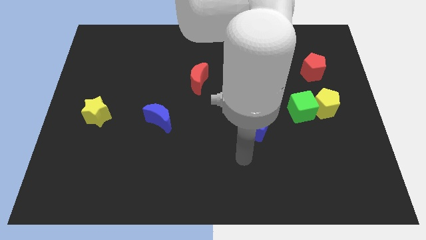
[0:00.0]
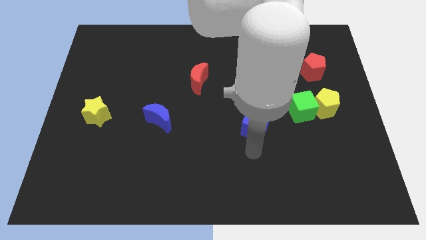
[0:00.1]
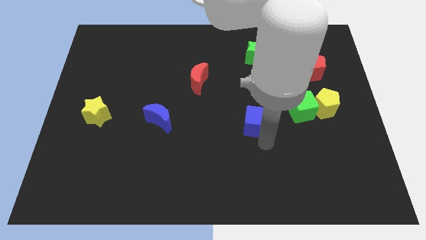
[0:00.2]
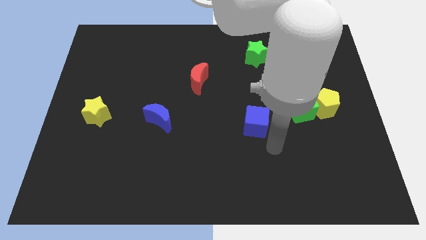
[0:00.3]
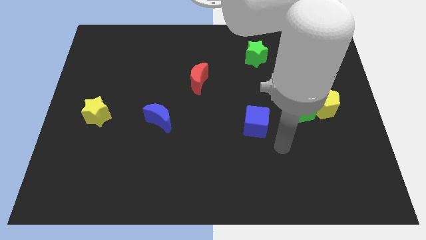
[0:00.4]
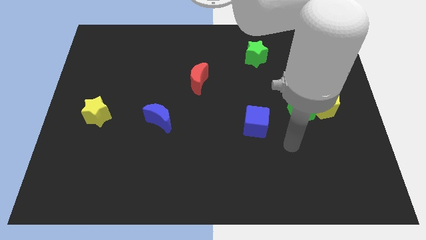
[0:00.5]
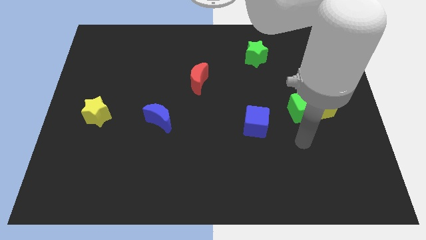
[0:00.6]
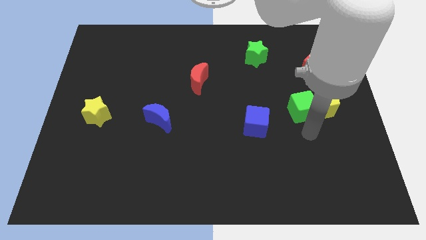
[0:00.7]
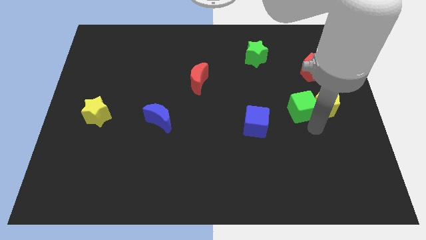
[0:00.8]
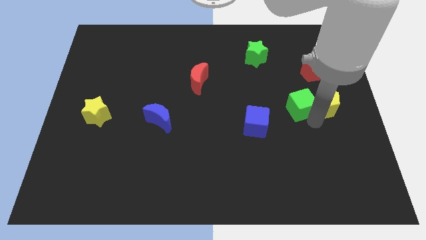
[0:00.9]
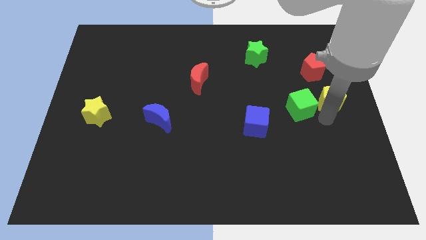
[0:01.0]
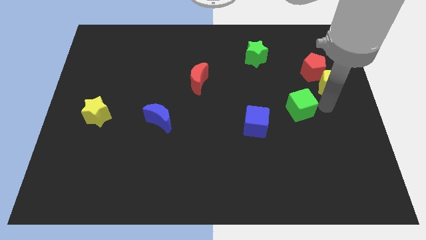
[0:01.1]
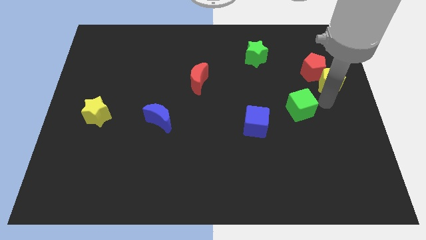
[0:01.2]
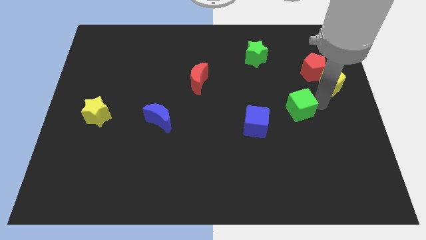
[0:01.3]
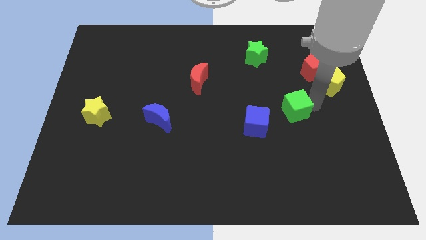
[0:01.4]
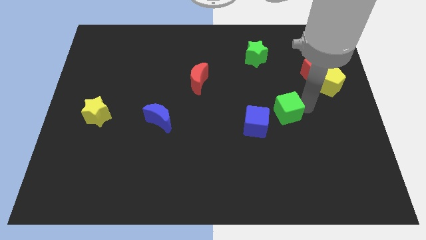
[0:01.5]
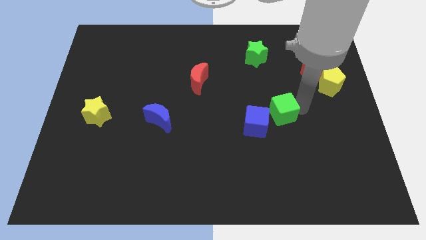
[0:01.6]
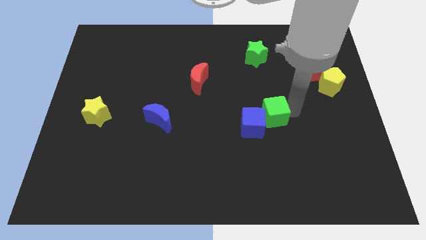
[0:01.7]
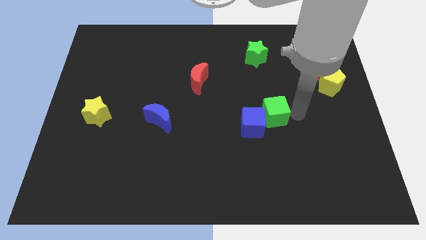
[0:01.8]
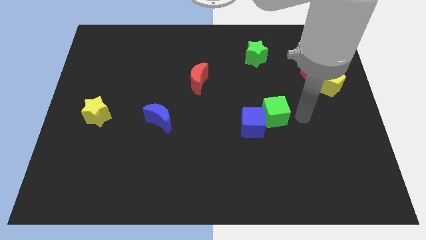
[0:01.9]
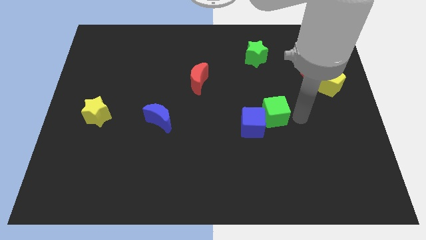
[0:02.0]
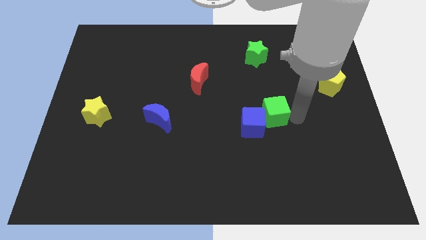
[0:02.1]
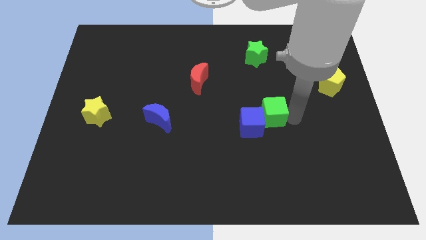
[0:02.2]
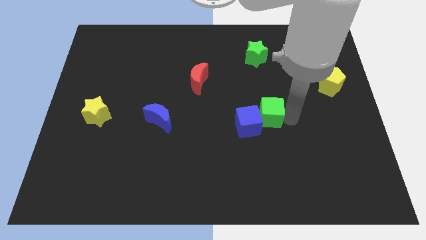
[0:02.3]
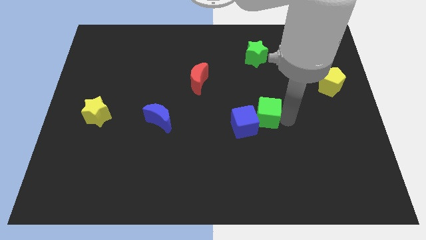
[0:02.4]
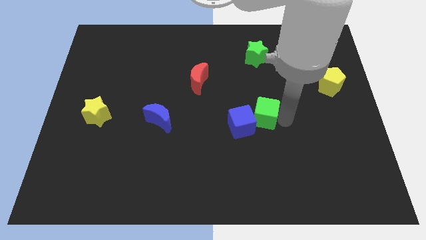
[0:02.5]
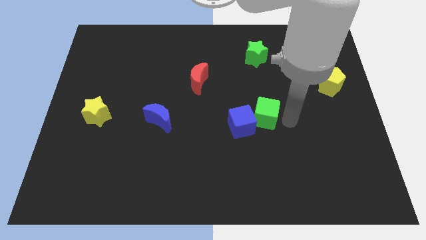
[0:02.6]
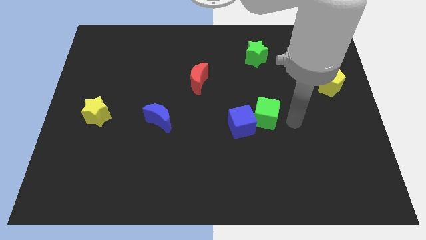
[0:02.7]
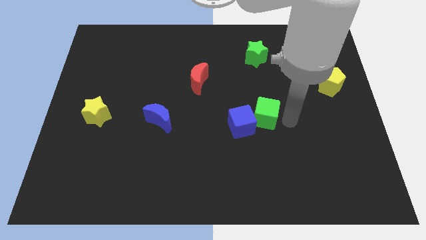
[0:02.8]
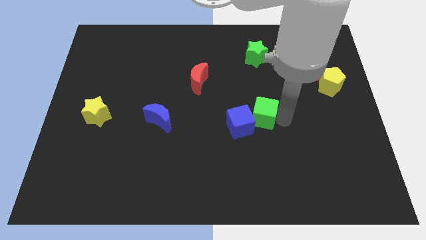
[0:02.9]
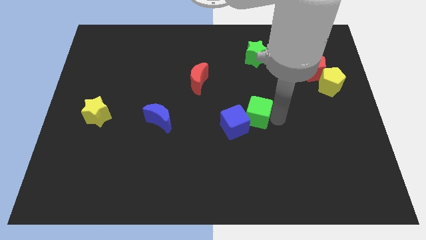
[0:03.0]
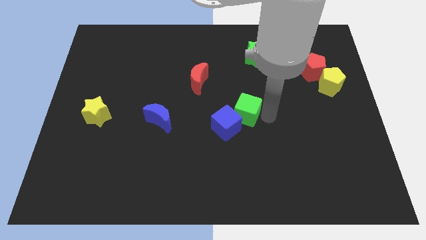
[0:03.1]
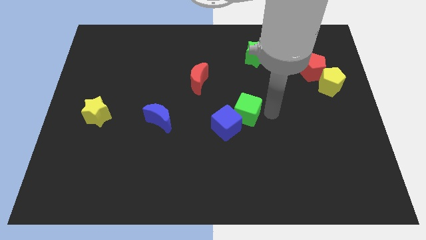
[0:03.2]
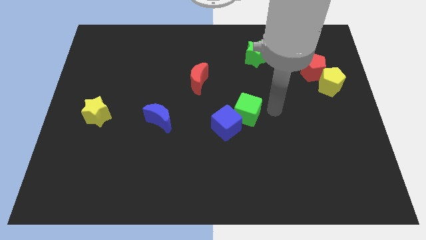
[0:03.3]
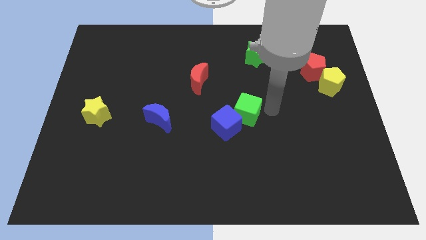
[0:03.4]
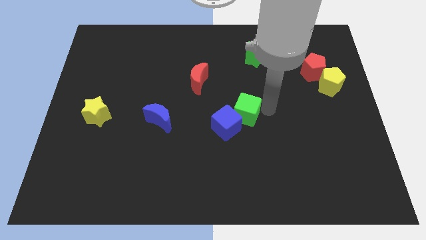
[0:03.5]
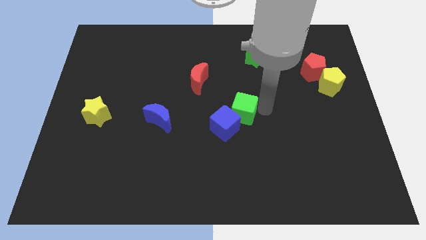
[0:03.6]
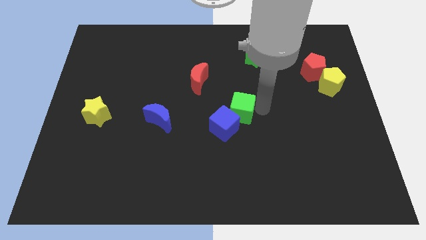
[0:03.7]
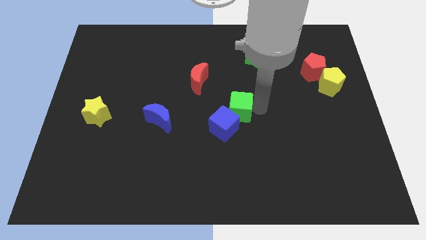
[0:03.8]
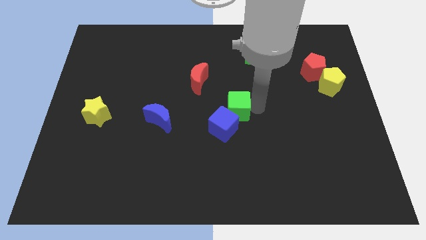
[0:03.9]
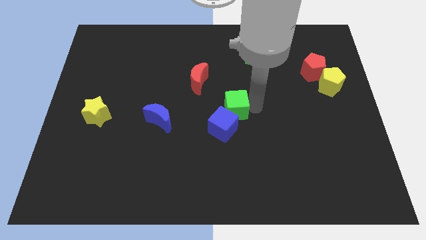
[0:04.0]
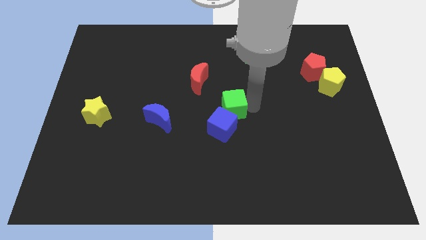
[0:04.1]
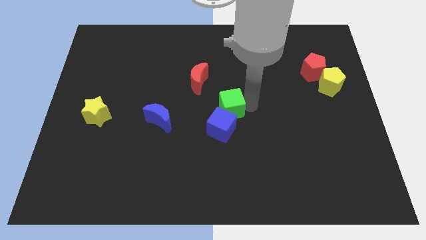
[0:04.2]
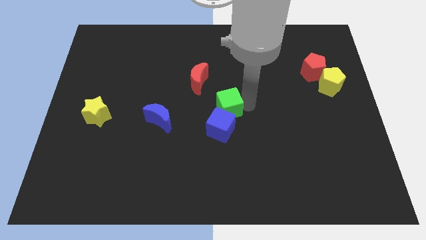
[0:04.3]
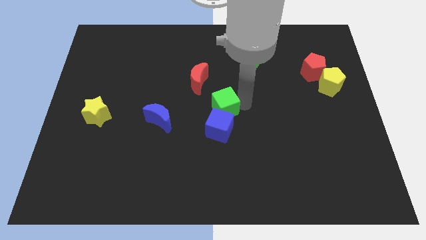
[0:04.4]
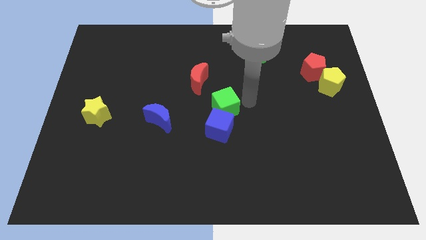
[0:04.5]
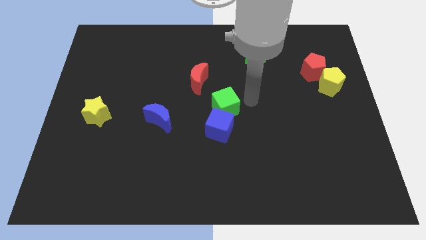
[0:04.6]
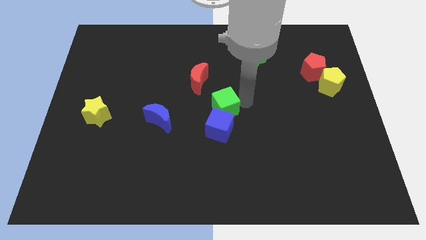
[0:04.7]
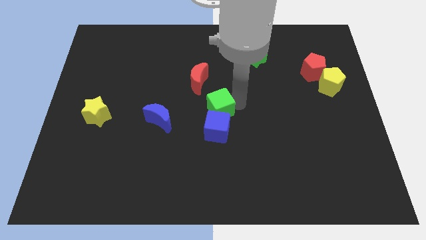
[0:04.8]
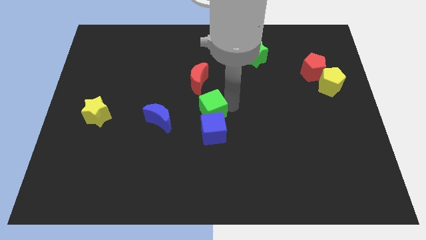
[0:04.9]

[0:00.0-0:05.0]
slide the green cube to the bottom side of the red moon

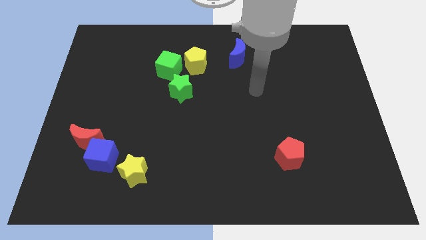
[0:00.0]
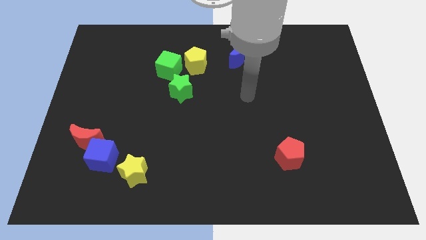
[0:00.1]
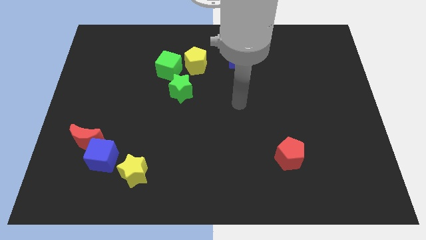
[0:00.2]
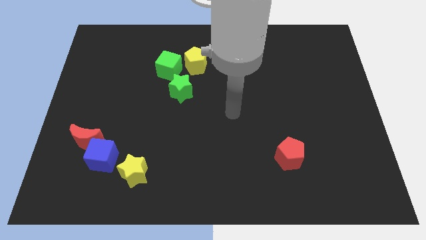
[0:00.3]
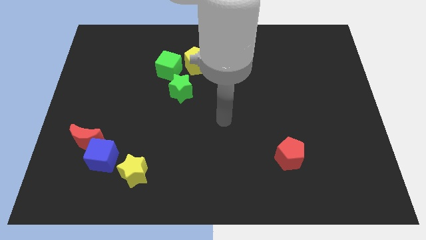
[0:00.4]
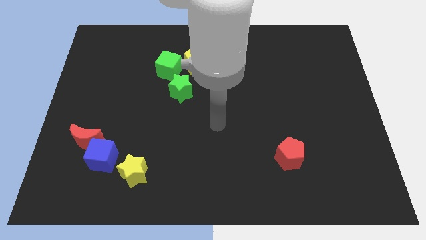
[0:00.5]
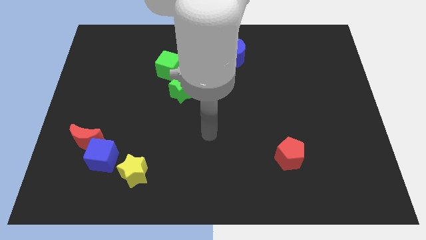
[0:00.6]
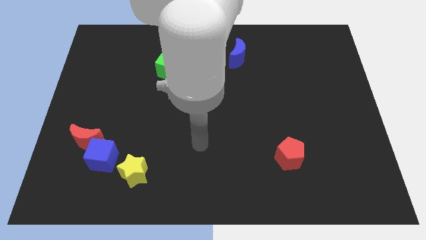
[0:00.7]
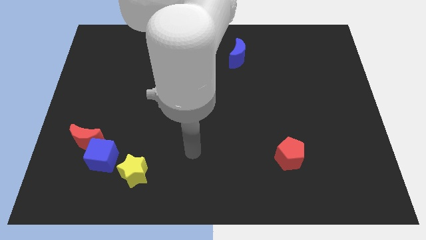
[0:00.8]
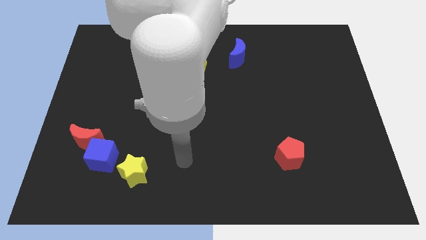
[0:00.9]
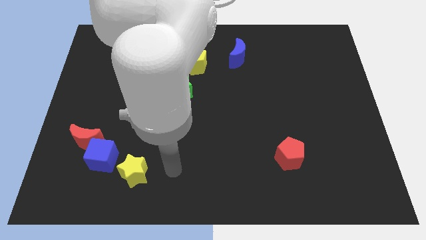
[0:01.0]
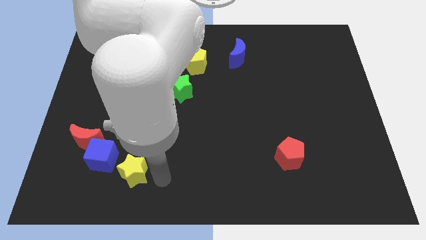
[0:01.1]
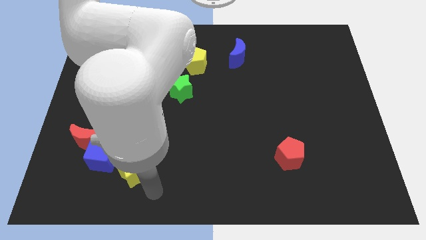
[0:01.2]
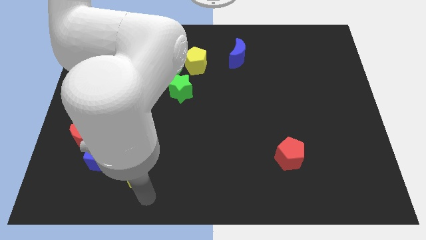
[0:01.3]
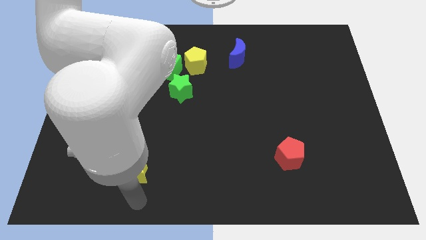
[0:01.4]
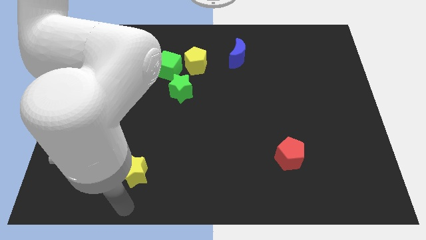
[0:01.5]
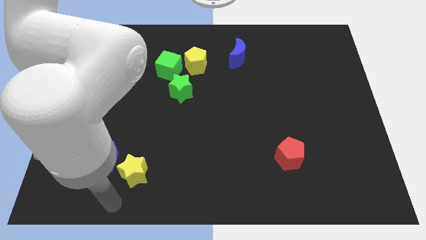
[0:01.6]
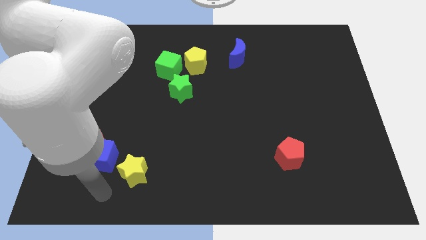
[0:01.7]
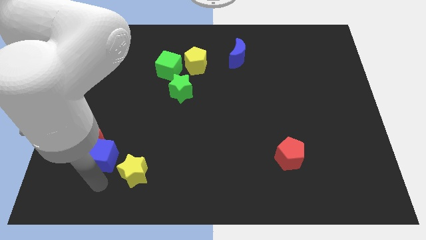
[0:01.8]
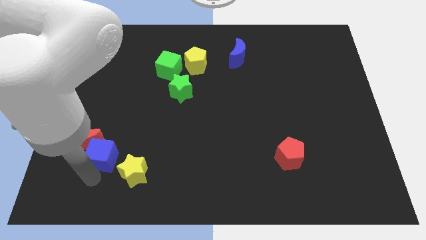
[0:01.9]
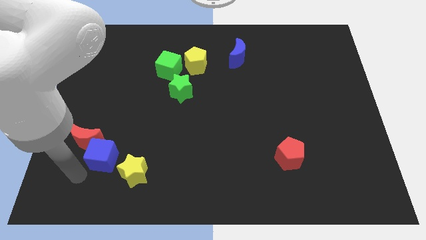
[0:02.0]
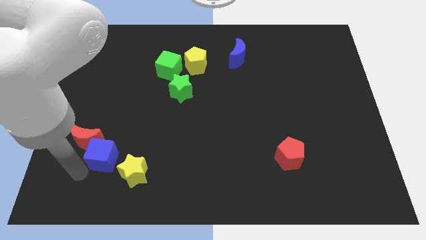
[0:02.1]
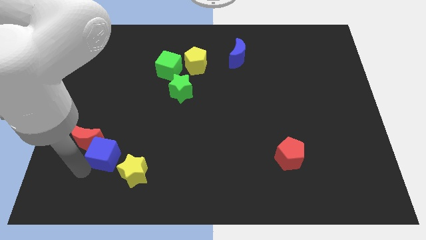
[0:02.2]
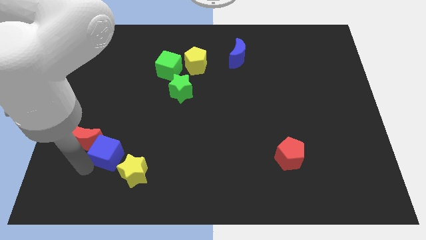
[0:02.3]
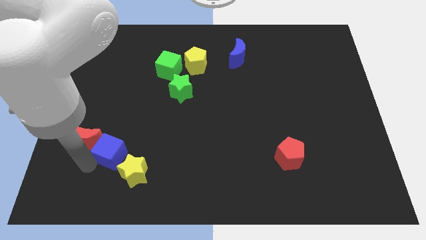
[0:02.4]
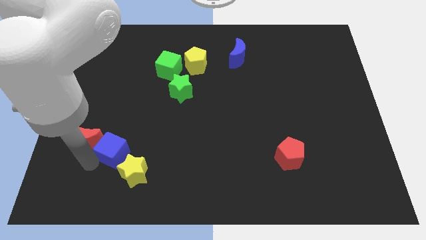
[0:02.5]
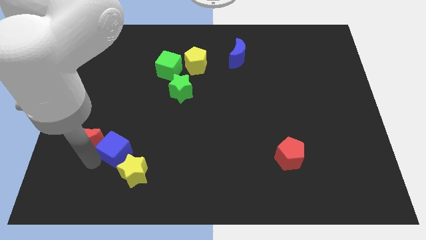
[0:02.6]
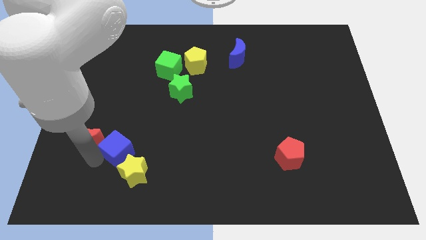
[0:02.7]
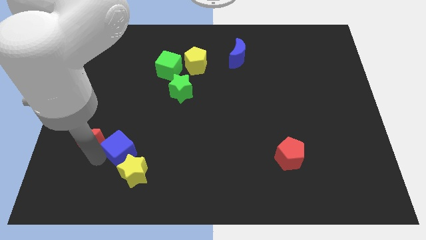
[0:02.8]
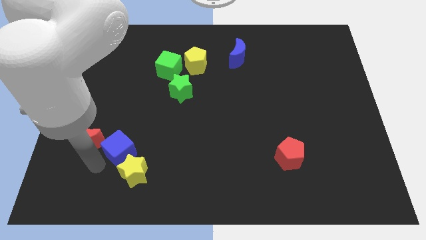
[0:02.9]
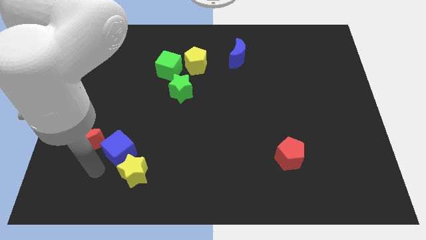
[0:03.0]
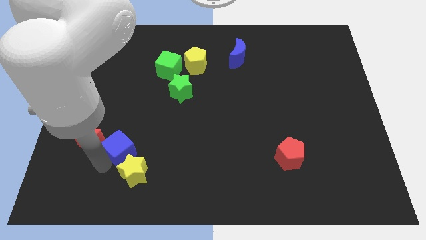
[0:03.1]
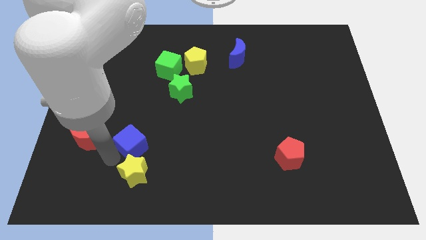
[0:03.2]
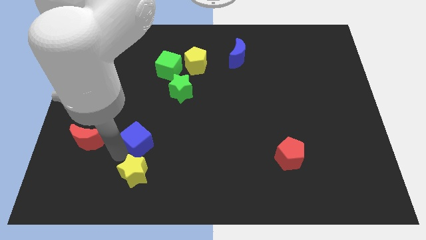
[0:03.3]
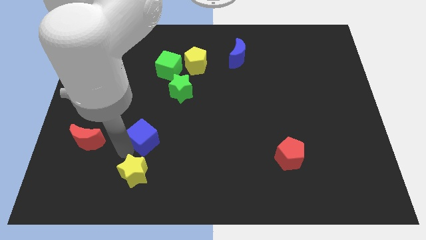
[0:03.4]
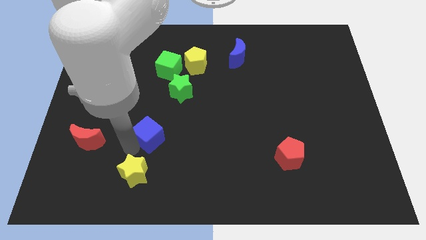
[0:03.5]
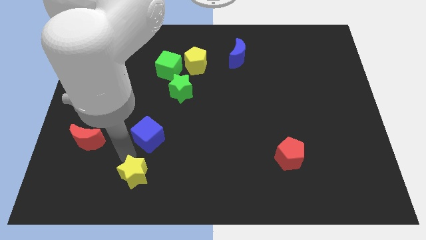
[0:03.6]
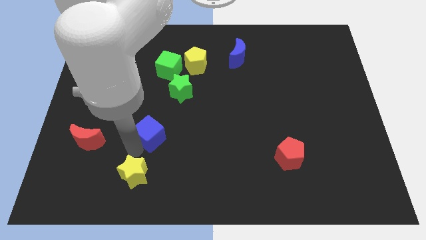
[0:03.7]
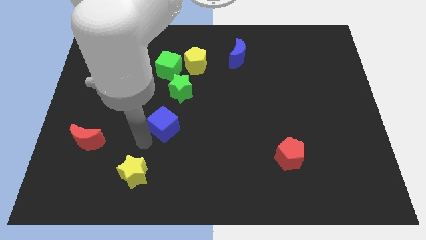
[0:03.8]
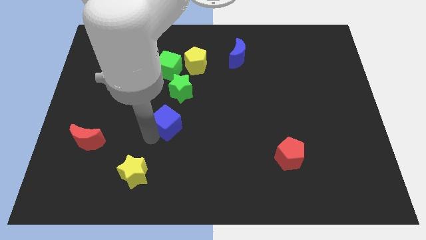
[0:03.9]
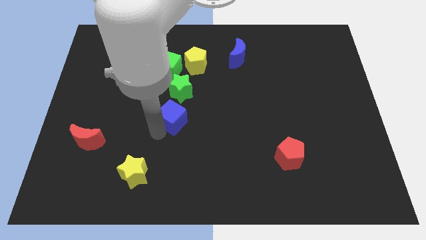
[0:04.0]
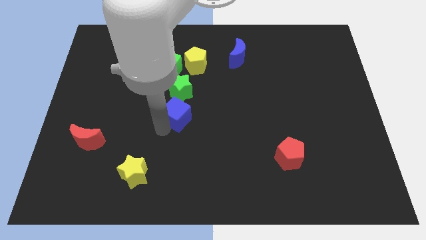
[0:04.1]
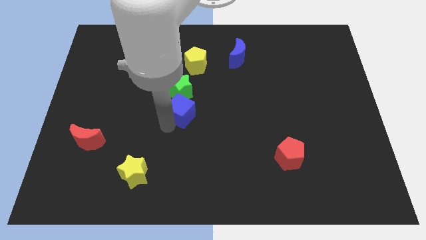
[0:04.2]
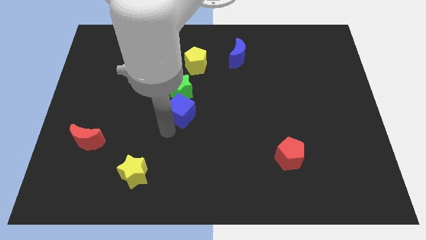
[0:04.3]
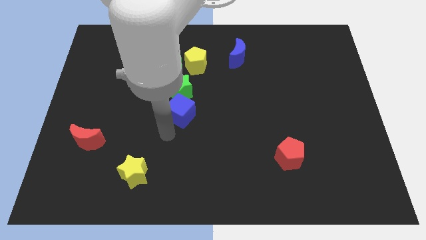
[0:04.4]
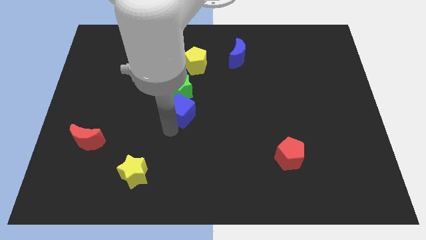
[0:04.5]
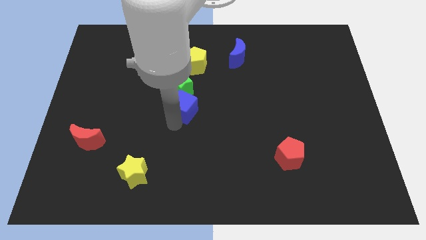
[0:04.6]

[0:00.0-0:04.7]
put the blue cube to the bottom side of the yellow pentagon
